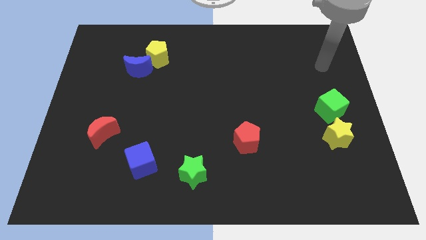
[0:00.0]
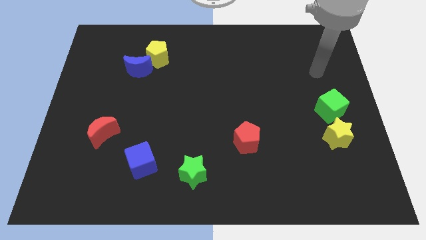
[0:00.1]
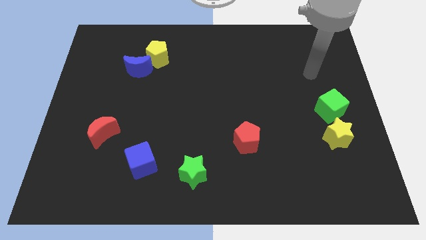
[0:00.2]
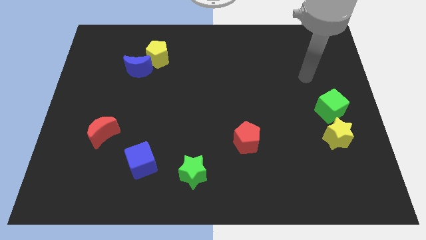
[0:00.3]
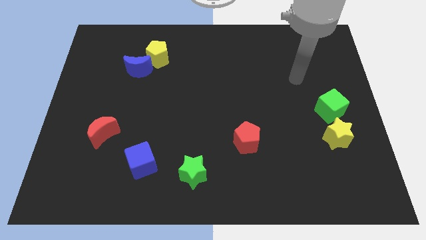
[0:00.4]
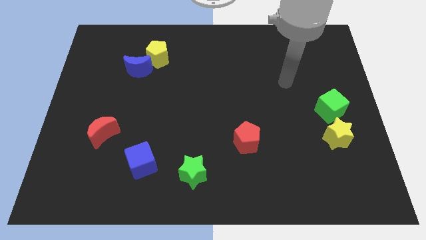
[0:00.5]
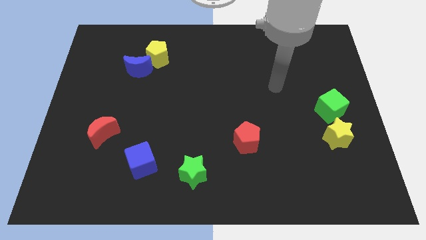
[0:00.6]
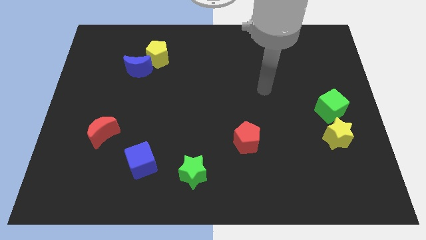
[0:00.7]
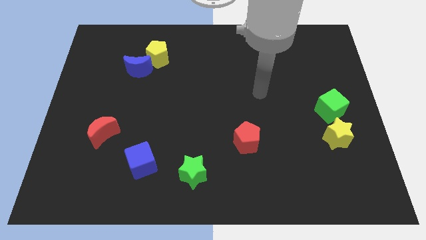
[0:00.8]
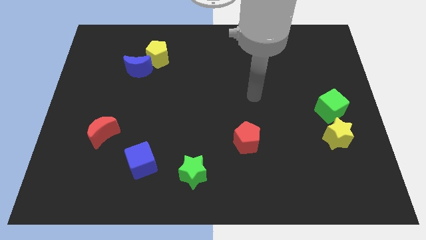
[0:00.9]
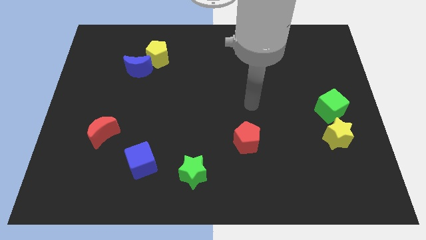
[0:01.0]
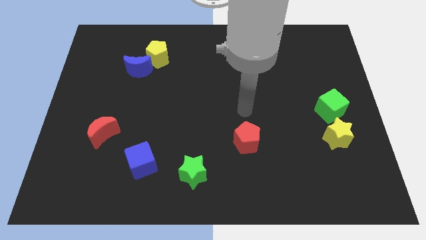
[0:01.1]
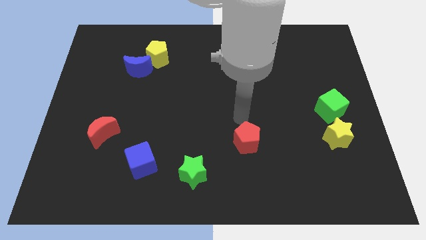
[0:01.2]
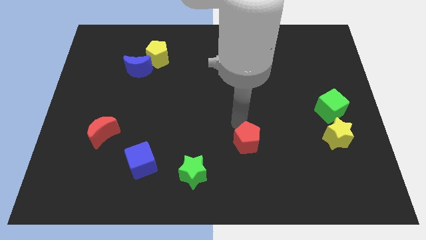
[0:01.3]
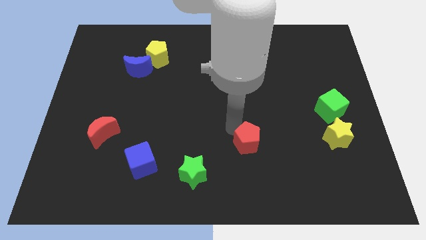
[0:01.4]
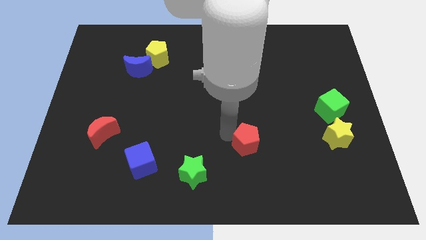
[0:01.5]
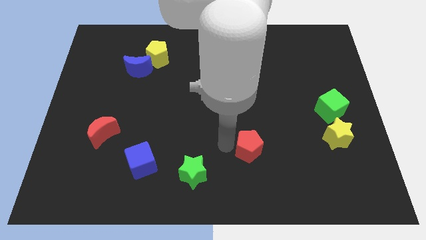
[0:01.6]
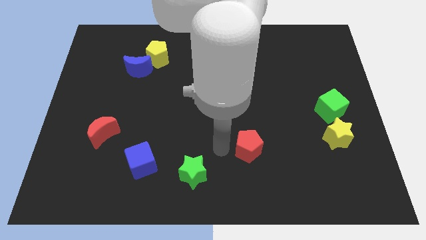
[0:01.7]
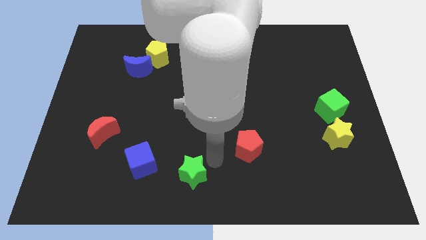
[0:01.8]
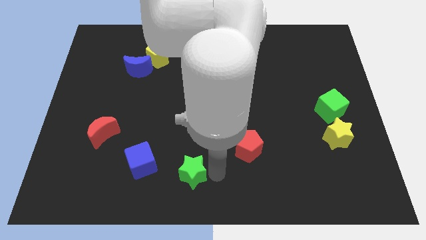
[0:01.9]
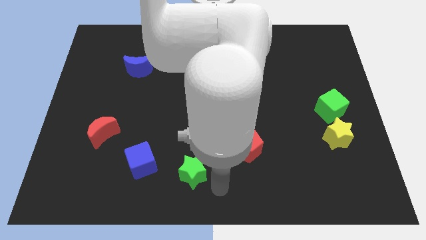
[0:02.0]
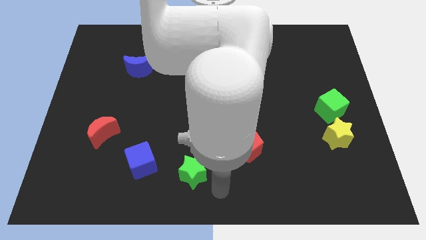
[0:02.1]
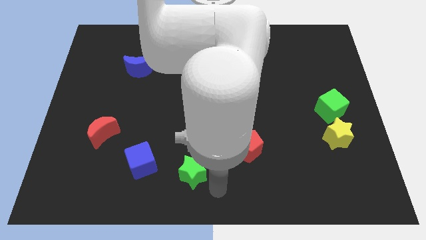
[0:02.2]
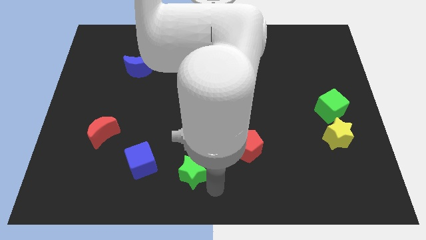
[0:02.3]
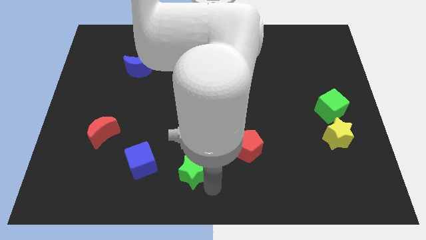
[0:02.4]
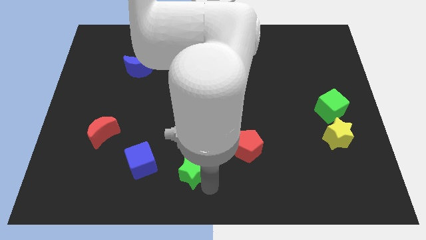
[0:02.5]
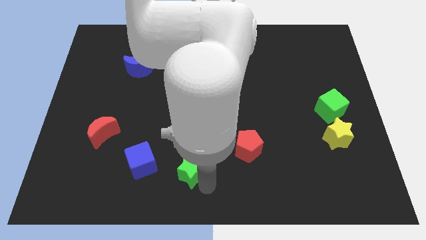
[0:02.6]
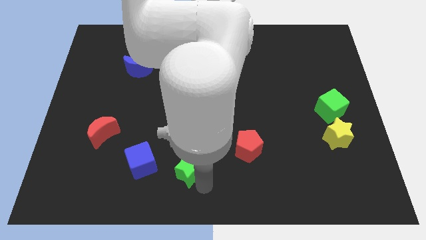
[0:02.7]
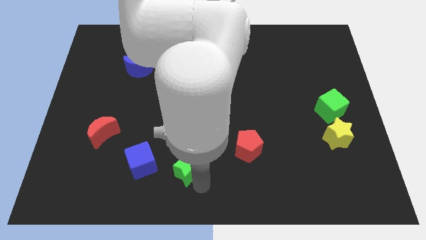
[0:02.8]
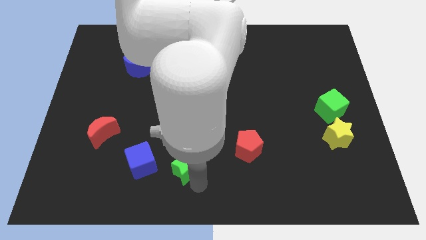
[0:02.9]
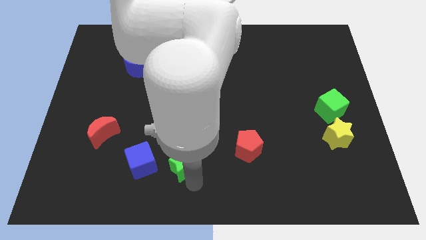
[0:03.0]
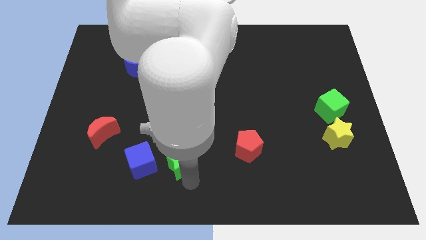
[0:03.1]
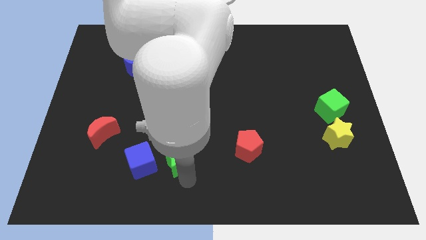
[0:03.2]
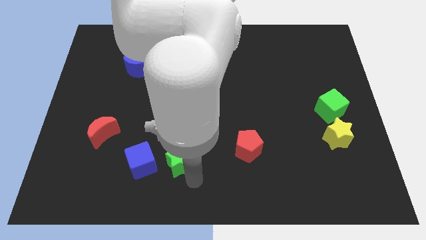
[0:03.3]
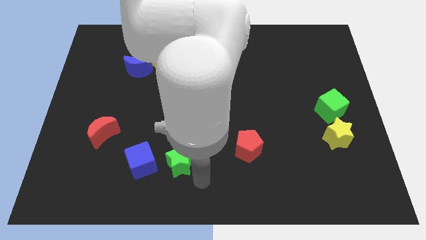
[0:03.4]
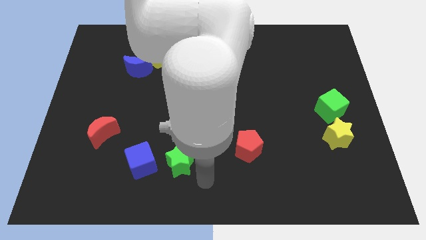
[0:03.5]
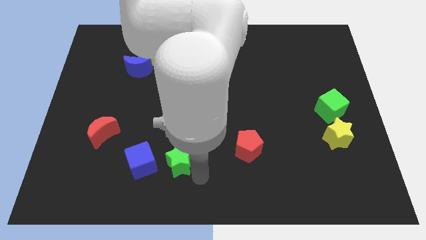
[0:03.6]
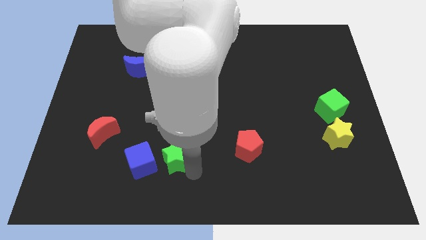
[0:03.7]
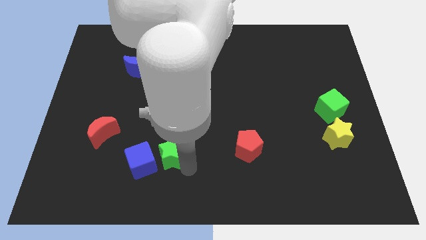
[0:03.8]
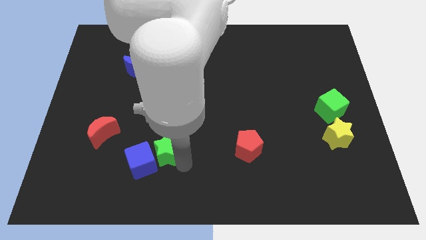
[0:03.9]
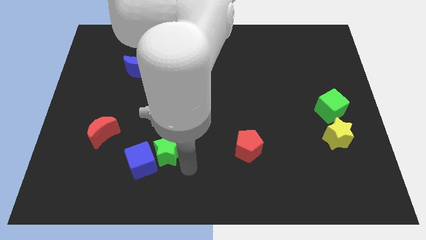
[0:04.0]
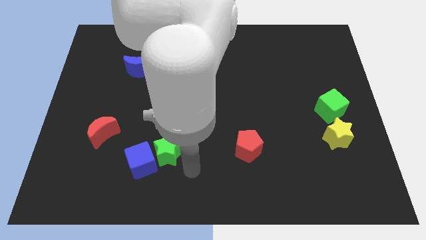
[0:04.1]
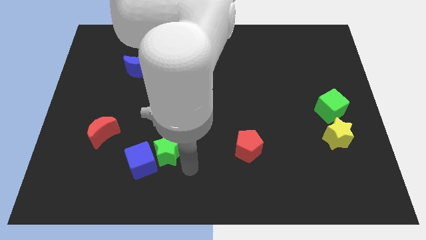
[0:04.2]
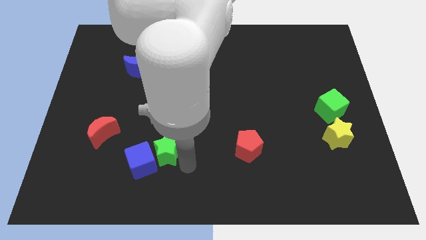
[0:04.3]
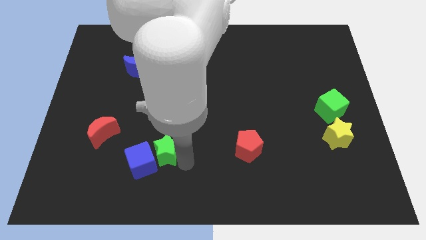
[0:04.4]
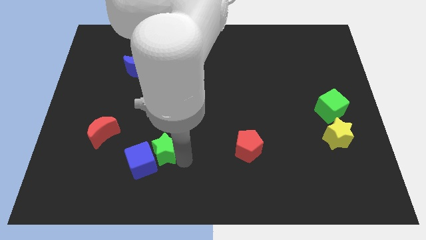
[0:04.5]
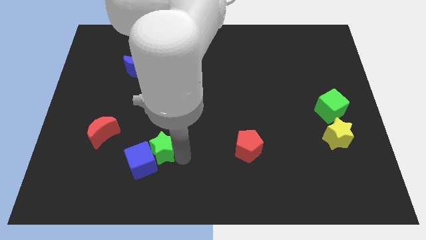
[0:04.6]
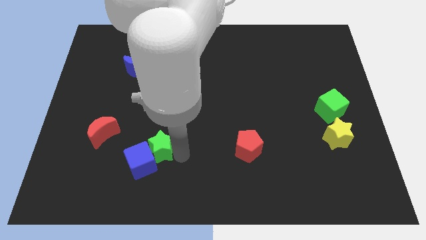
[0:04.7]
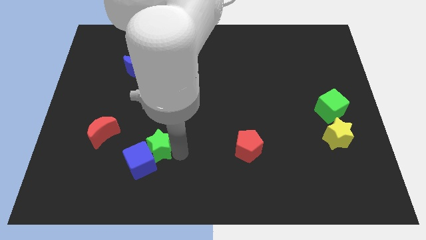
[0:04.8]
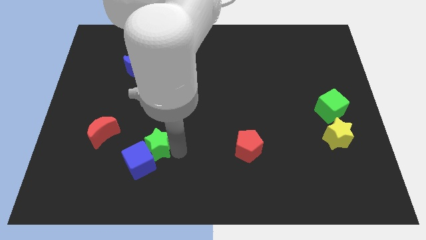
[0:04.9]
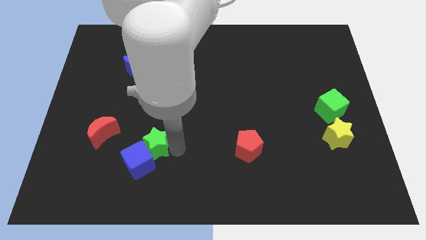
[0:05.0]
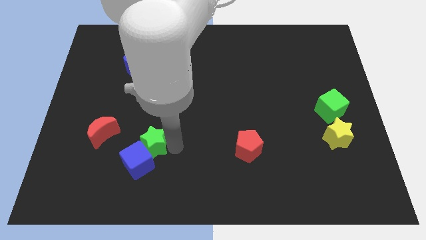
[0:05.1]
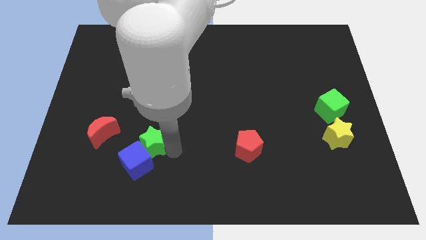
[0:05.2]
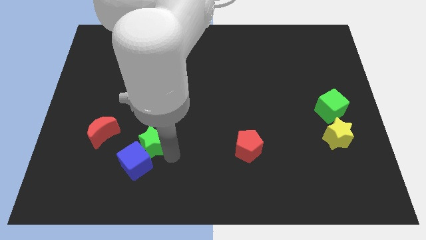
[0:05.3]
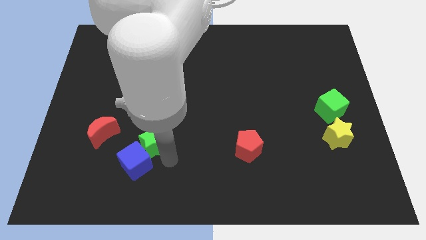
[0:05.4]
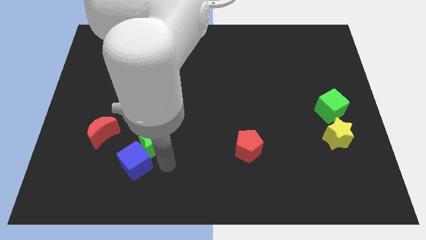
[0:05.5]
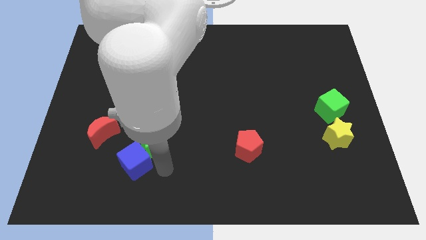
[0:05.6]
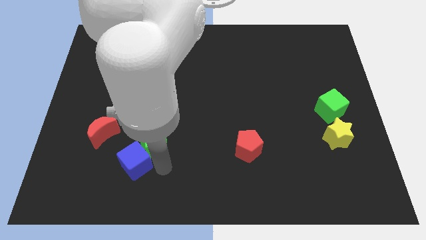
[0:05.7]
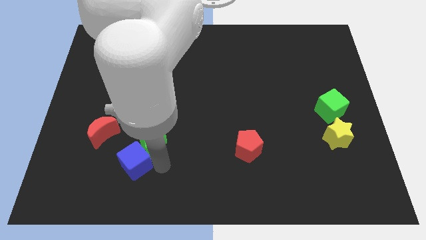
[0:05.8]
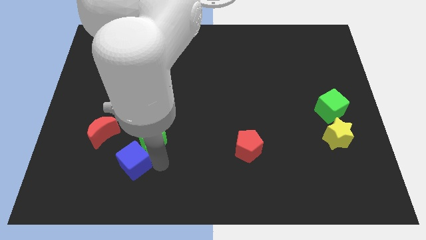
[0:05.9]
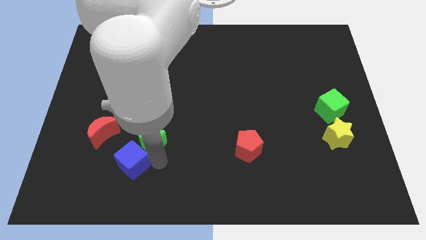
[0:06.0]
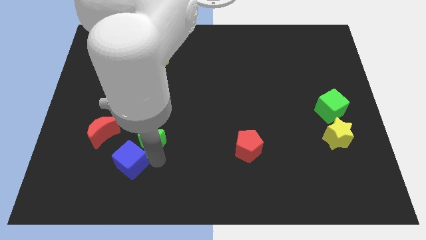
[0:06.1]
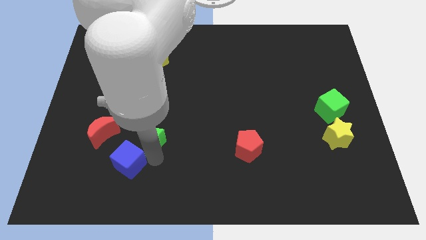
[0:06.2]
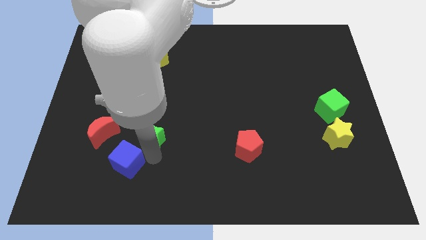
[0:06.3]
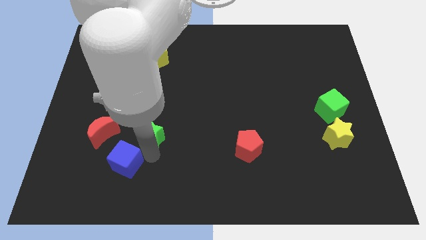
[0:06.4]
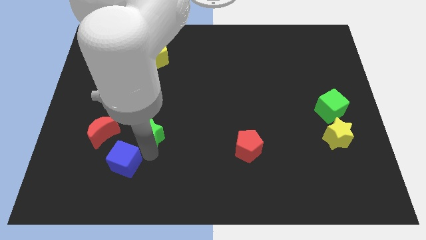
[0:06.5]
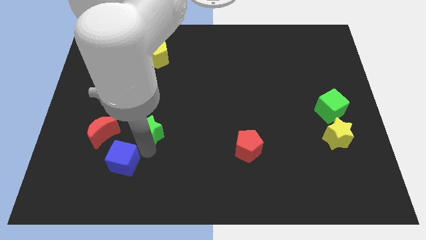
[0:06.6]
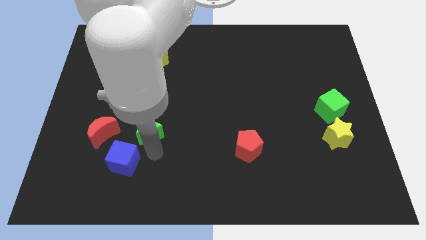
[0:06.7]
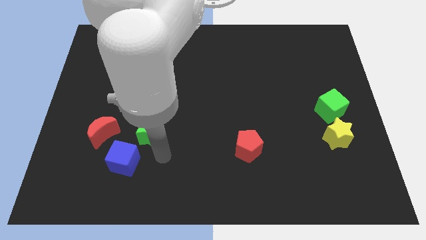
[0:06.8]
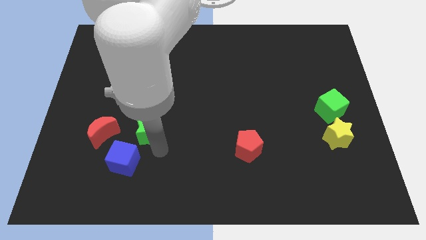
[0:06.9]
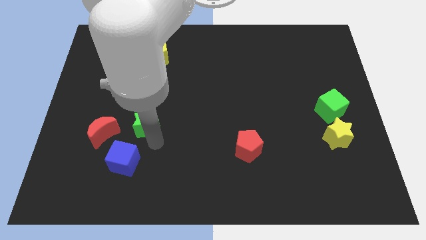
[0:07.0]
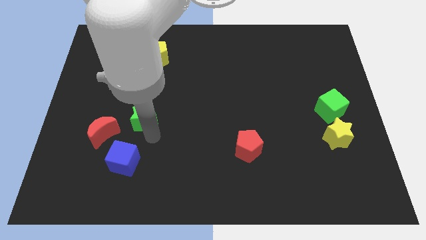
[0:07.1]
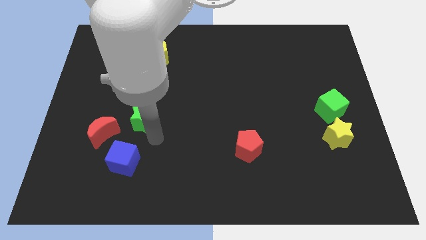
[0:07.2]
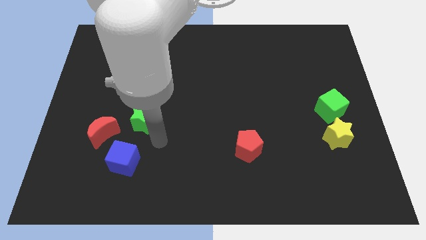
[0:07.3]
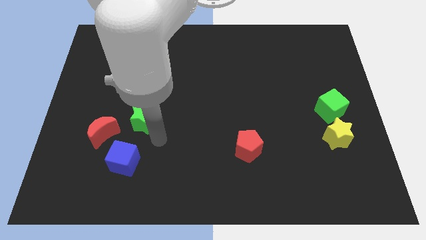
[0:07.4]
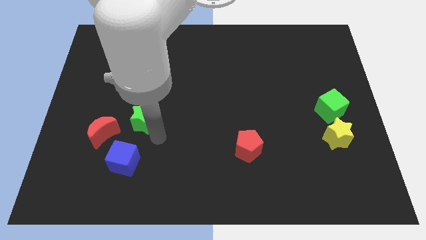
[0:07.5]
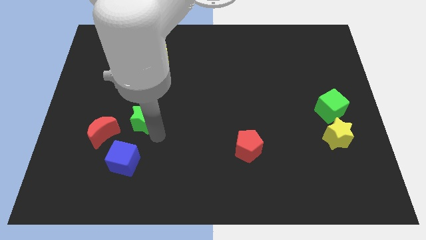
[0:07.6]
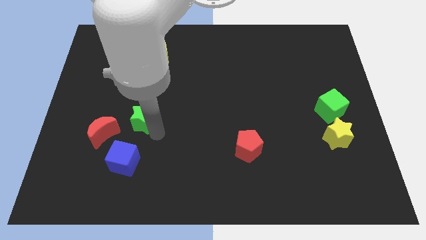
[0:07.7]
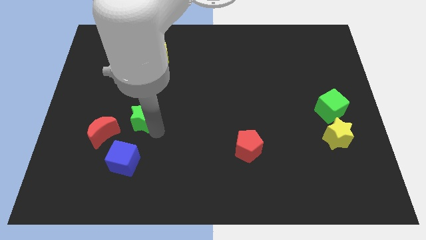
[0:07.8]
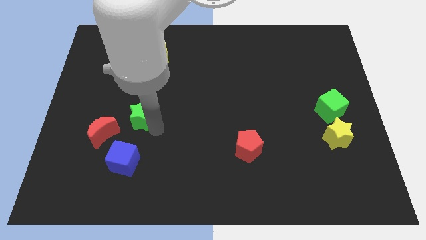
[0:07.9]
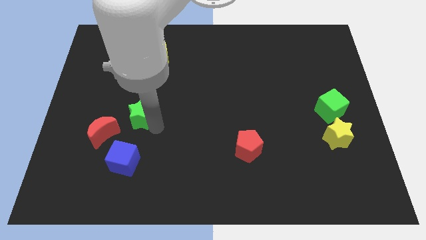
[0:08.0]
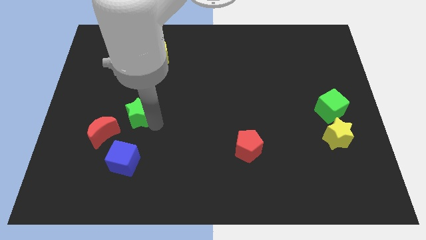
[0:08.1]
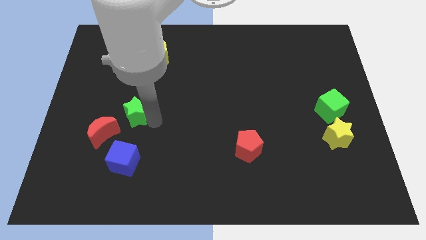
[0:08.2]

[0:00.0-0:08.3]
slide the green star up and then to the left
